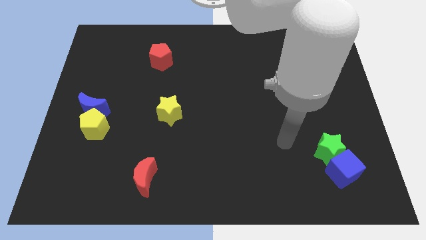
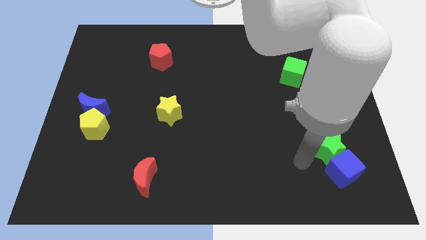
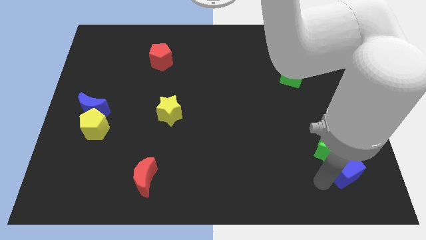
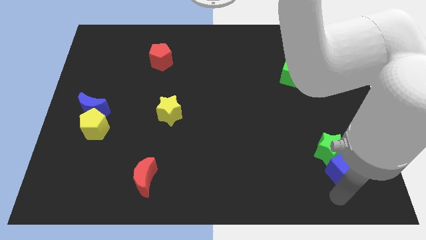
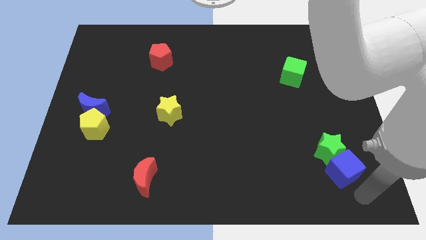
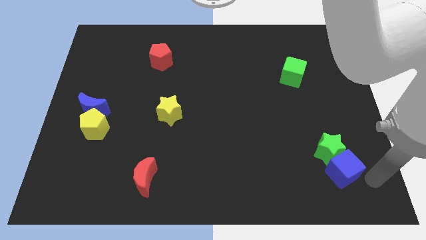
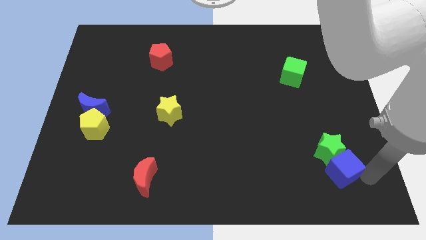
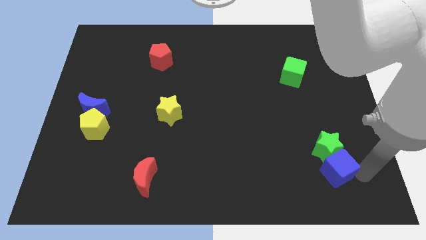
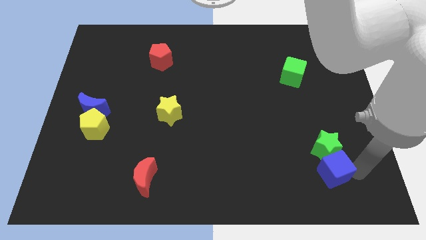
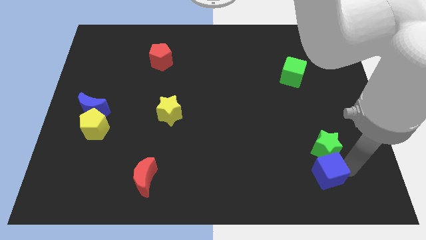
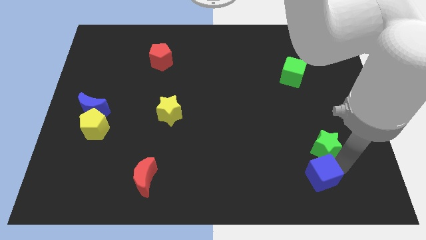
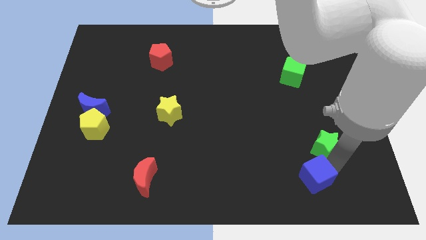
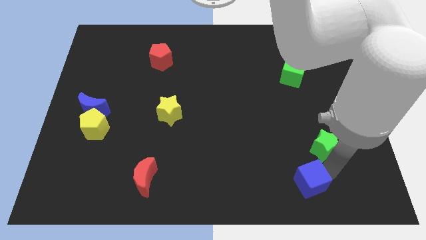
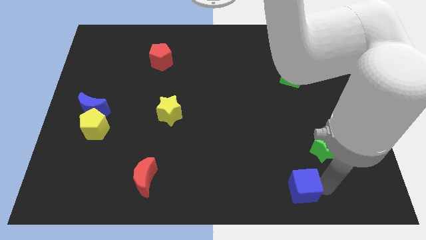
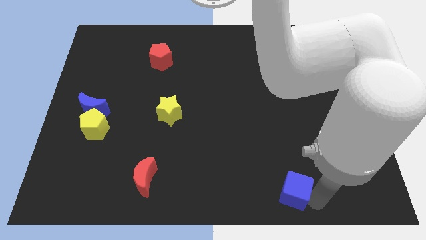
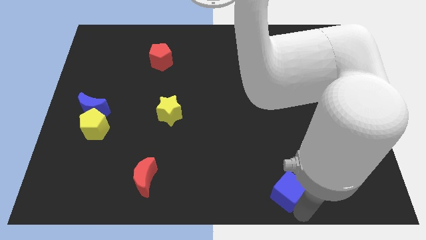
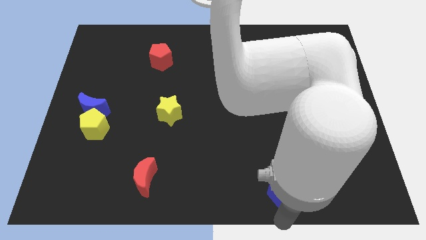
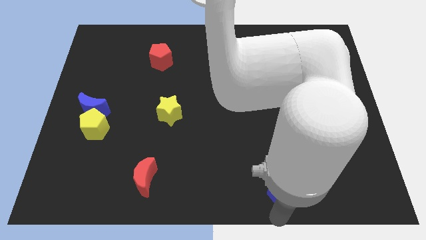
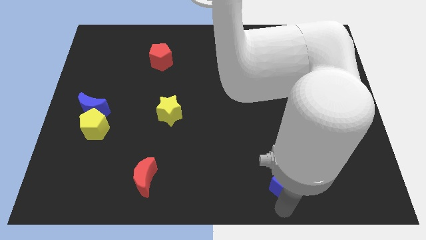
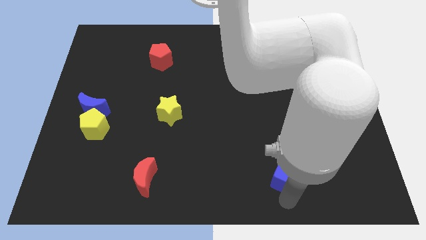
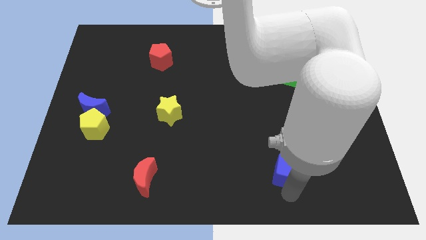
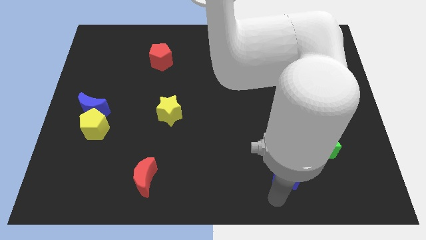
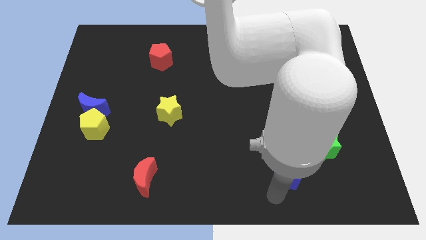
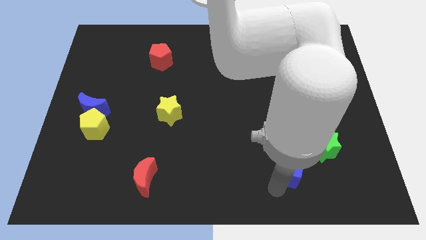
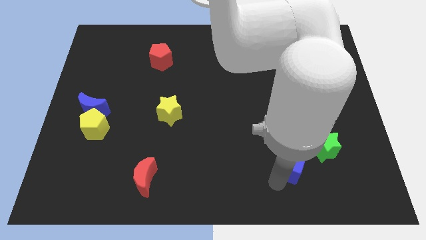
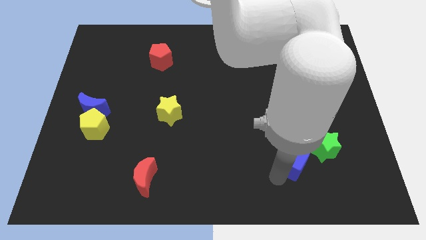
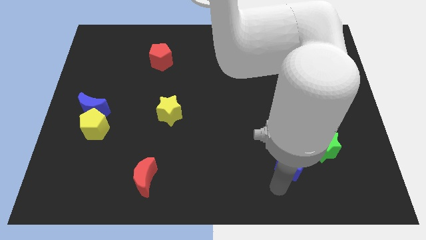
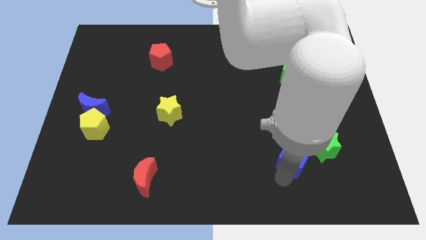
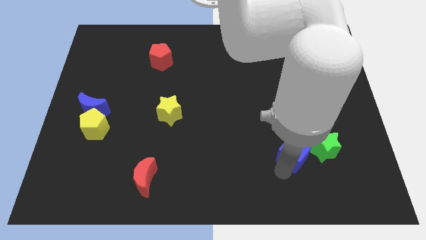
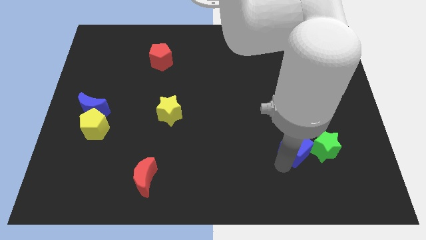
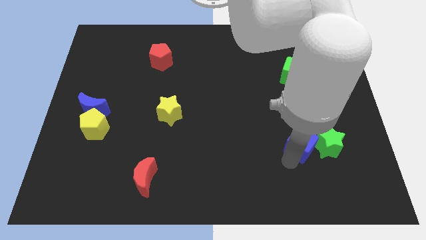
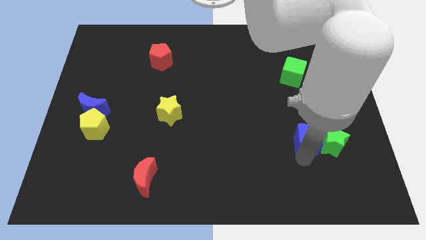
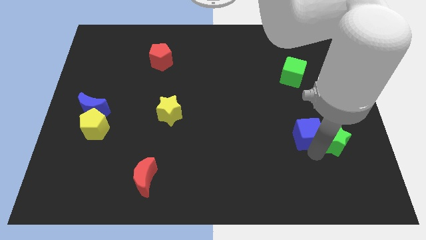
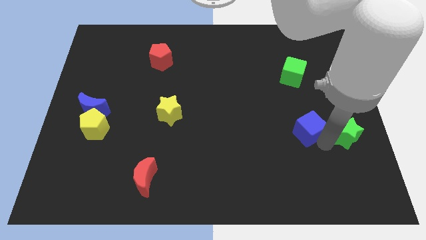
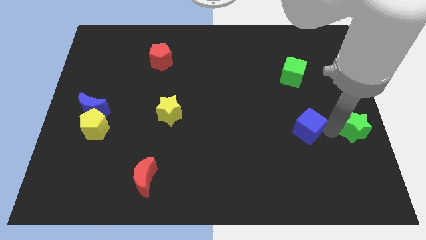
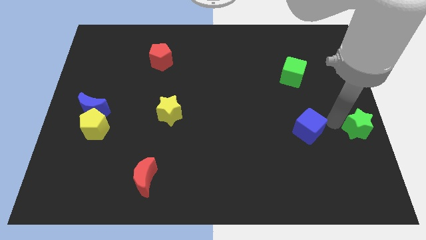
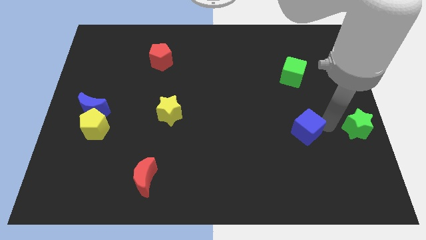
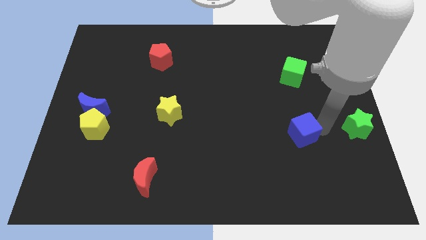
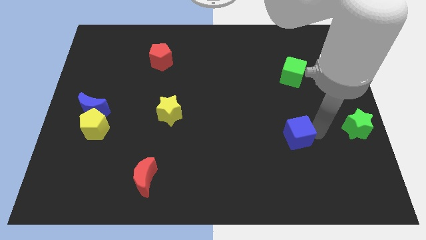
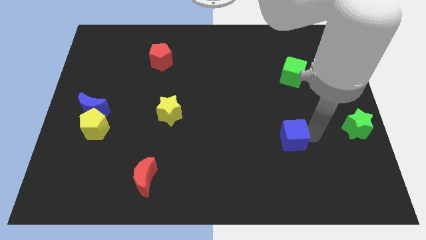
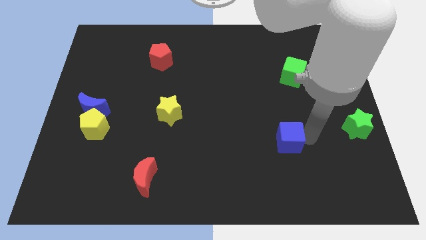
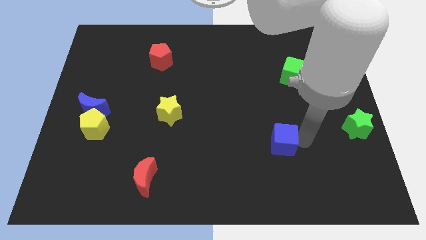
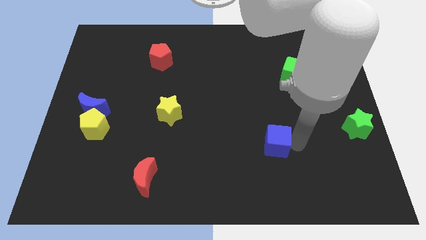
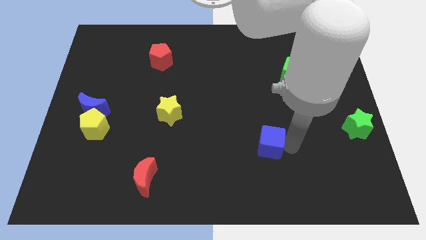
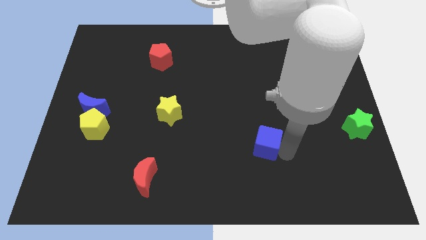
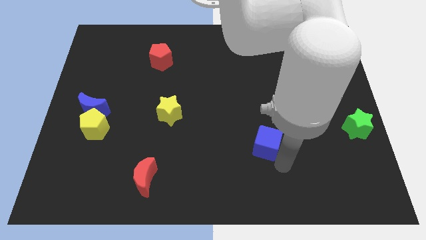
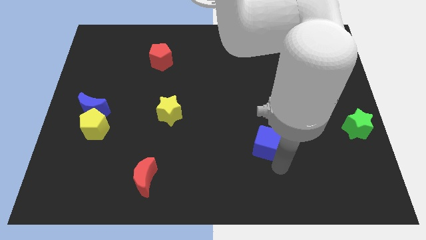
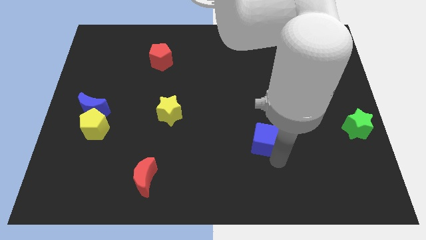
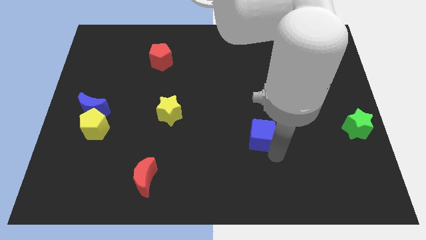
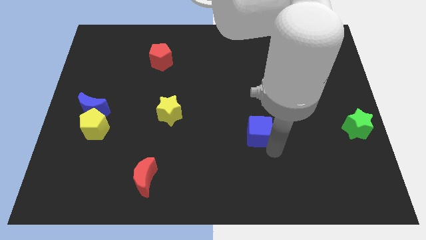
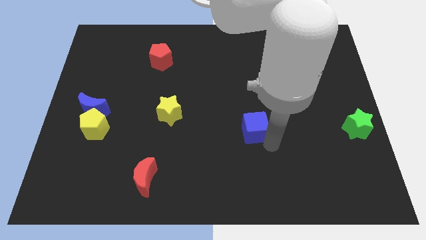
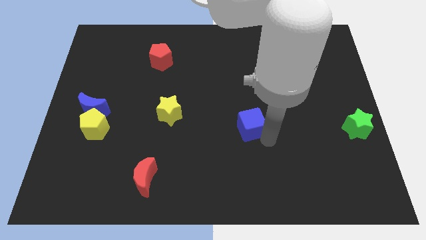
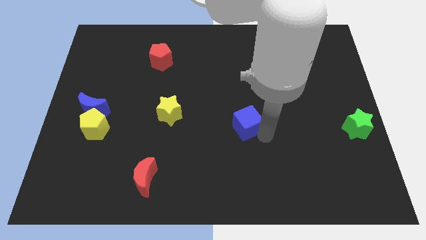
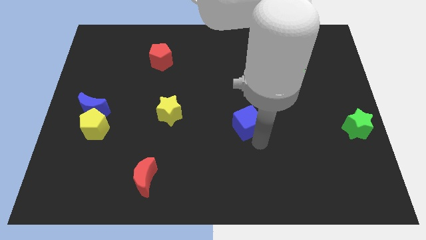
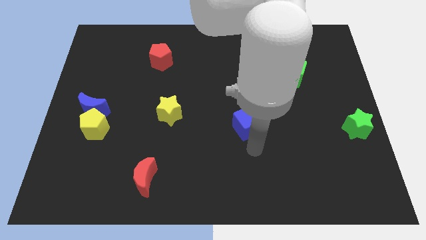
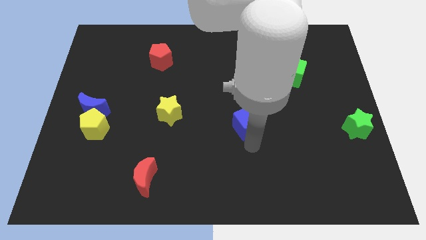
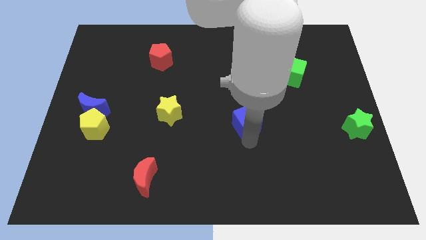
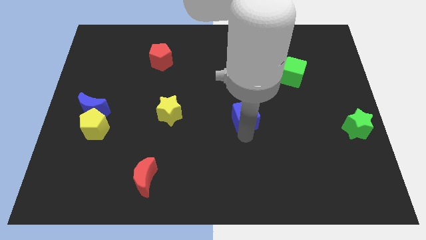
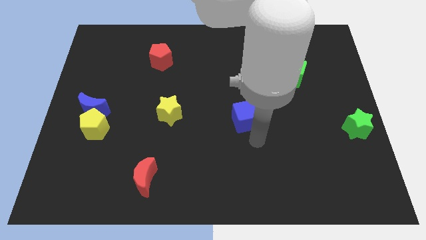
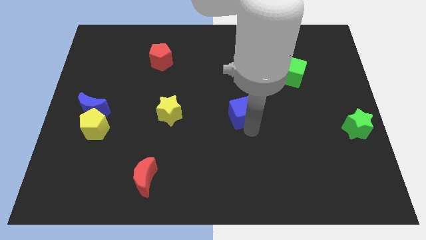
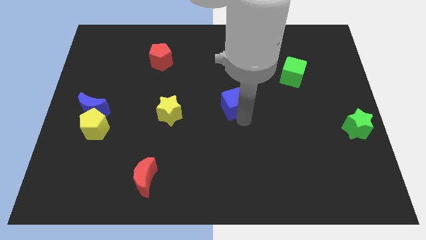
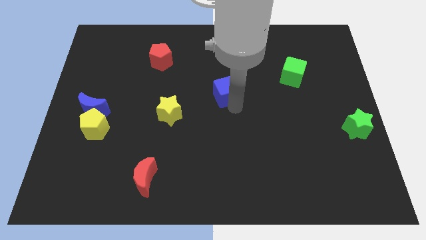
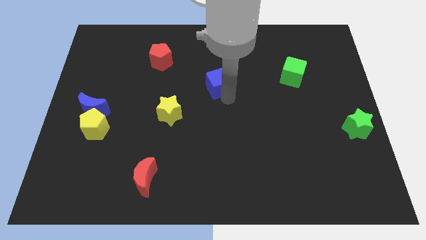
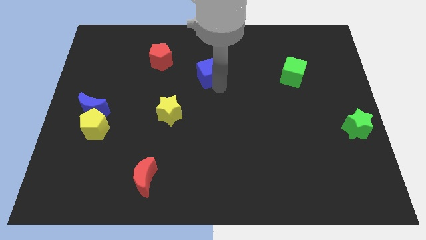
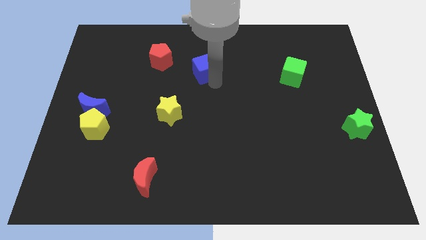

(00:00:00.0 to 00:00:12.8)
slide the blue cube just right of the red pentagon

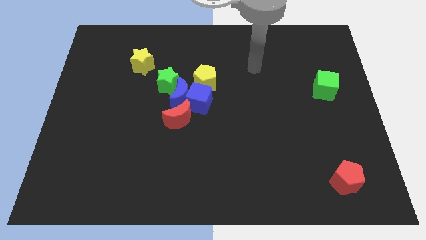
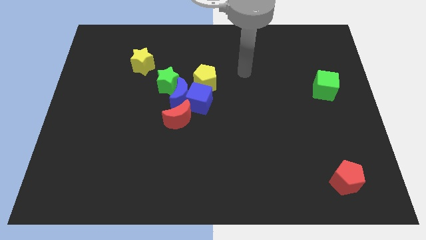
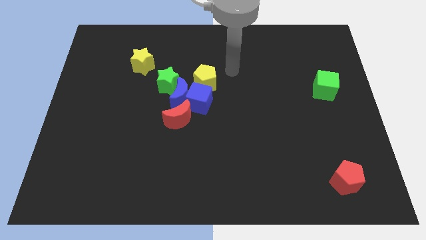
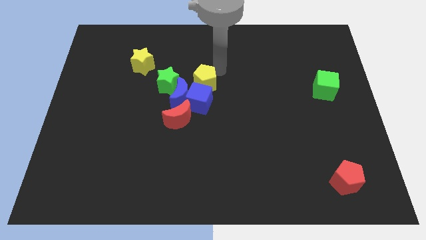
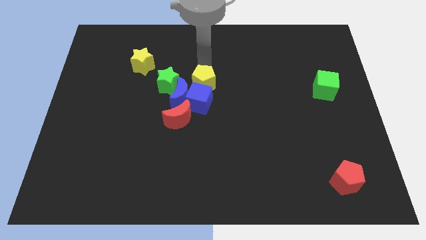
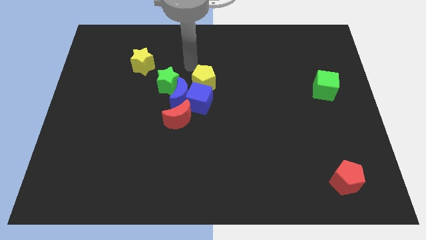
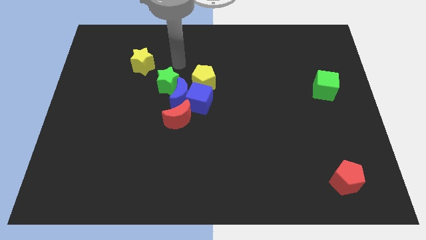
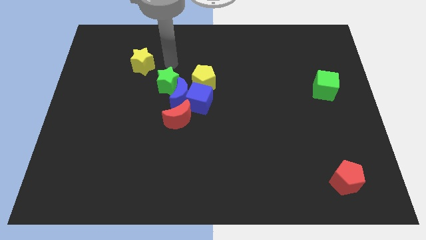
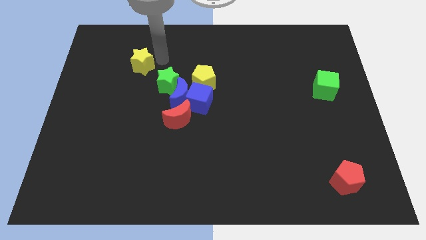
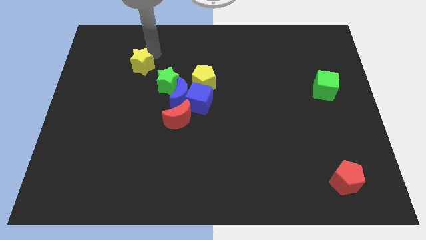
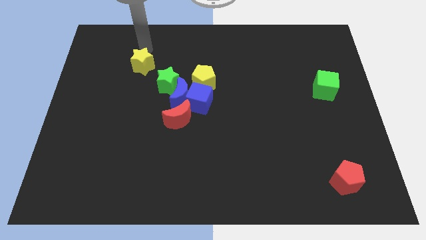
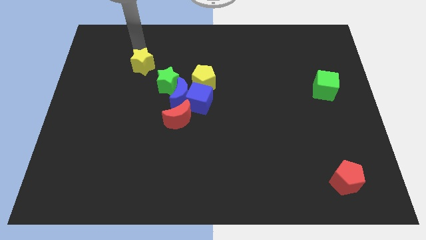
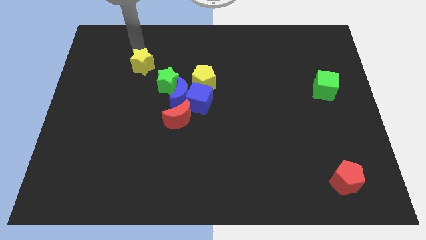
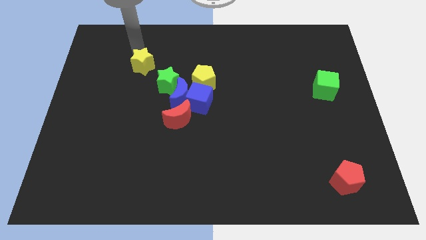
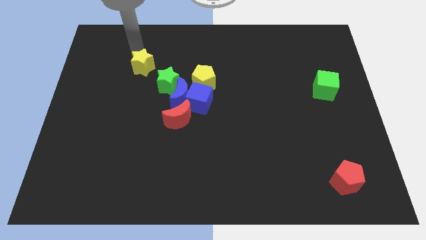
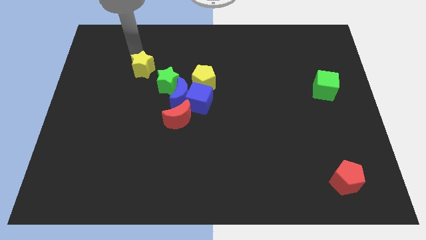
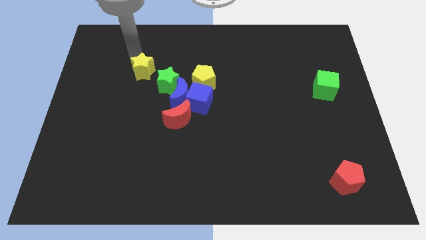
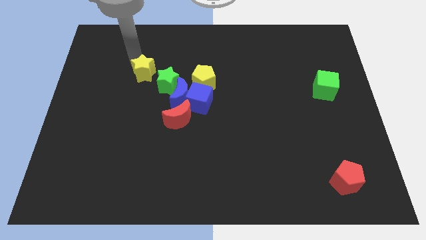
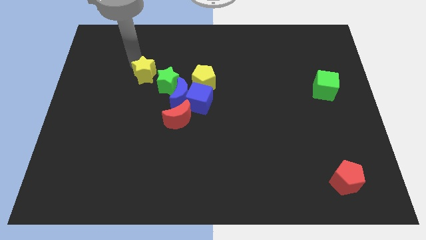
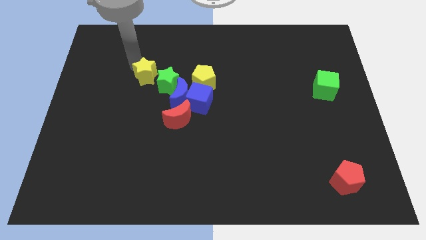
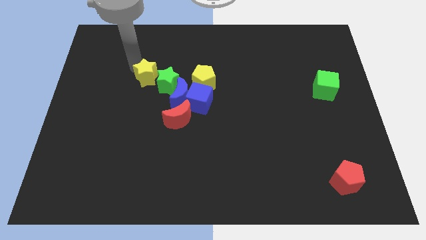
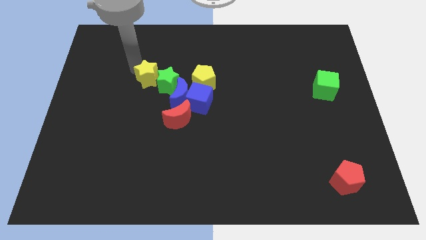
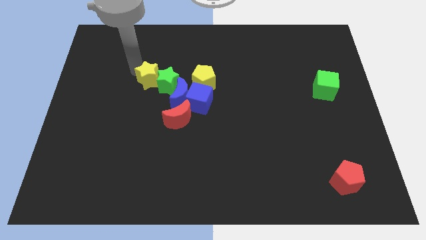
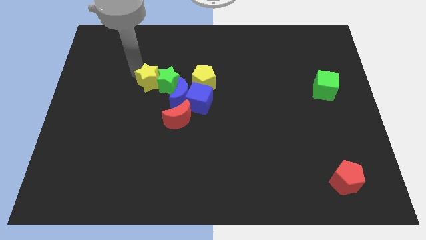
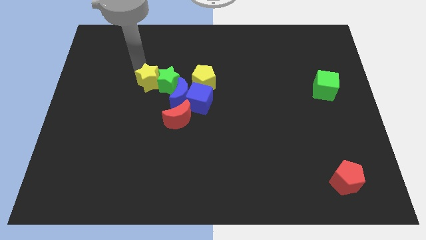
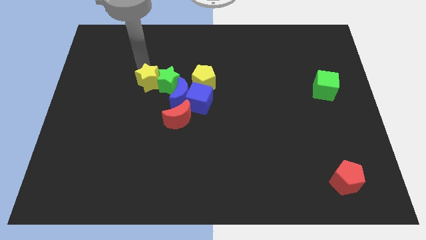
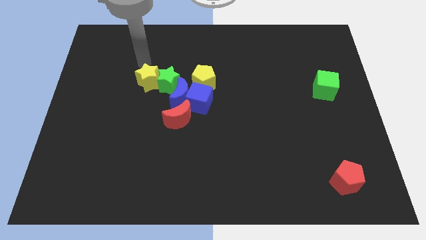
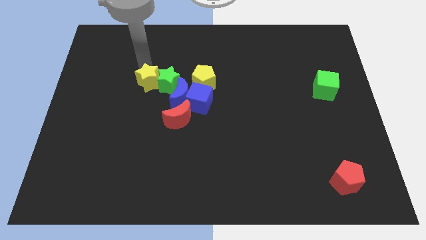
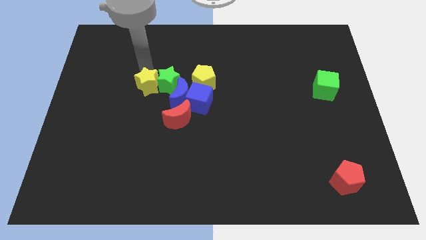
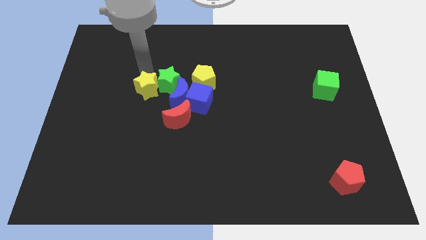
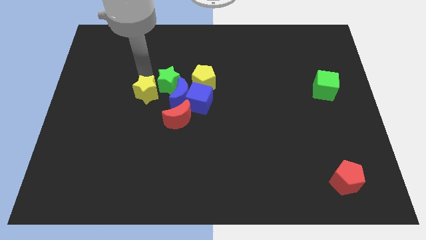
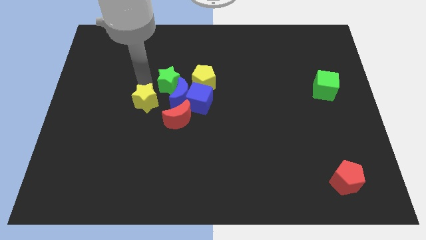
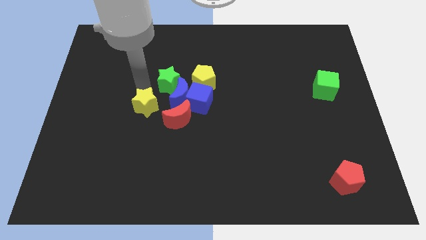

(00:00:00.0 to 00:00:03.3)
push the yellow star to the bottom left of the blue moon
